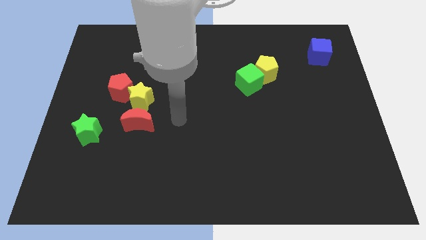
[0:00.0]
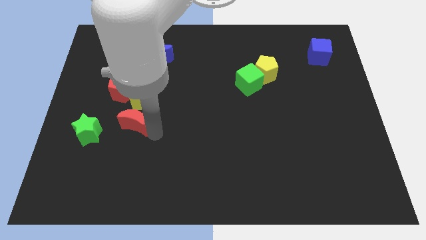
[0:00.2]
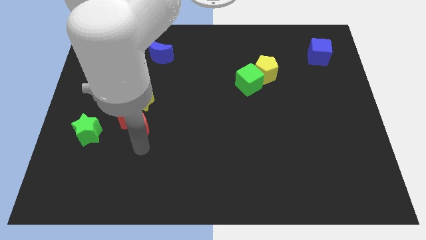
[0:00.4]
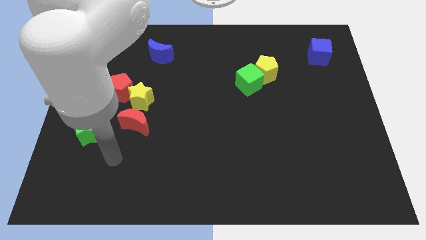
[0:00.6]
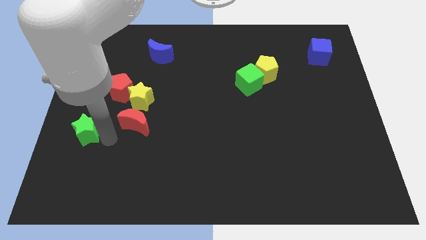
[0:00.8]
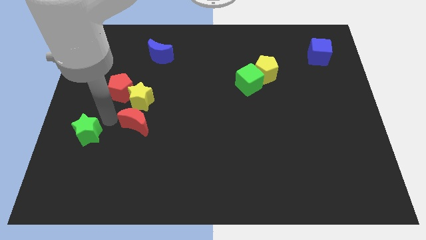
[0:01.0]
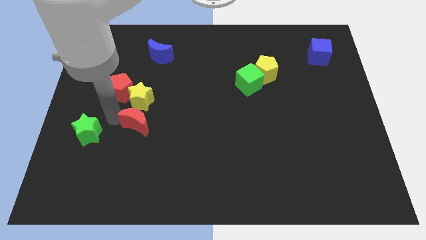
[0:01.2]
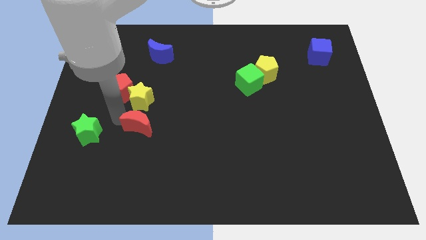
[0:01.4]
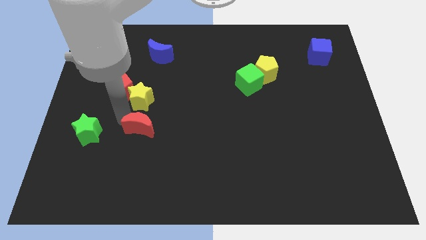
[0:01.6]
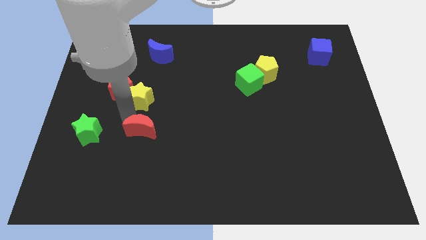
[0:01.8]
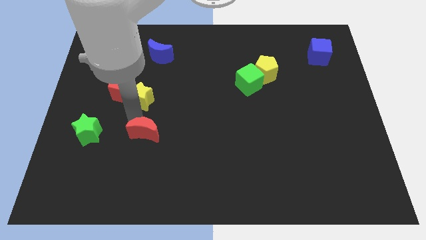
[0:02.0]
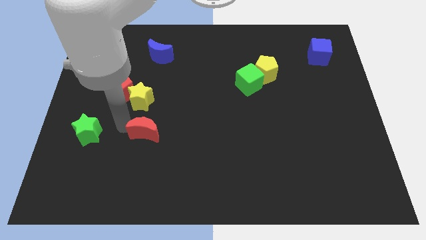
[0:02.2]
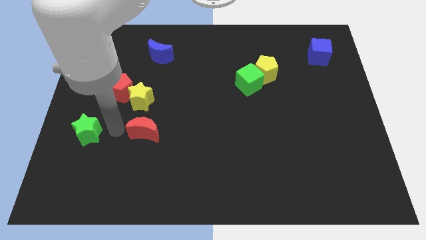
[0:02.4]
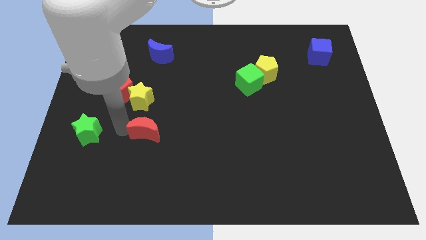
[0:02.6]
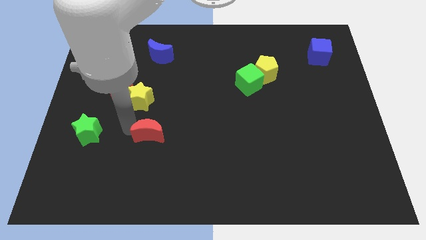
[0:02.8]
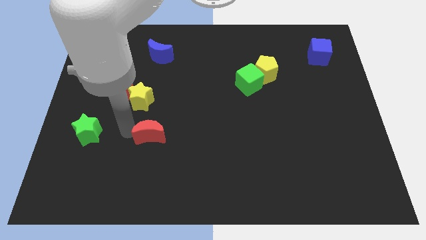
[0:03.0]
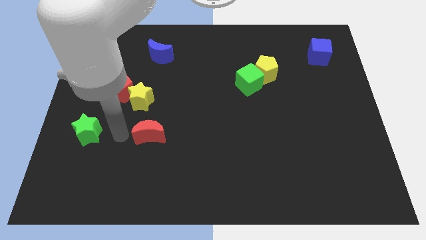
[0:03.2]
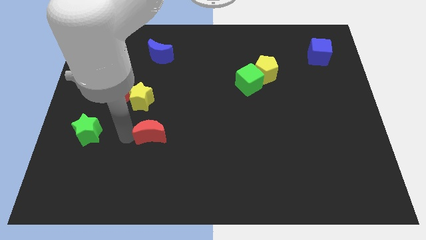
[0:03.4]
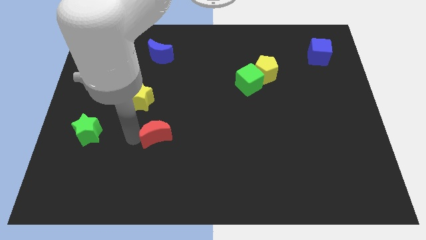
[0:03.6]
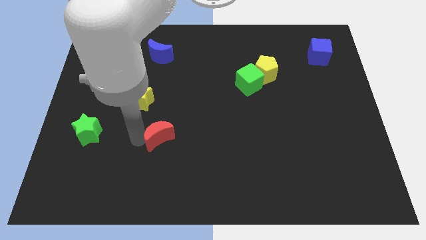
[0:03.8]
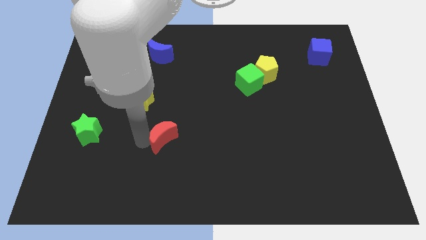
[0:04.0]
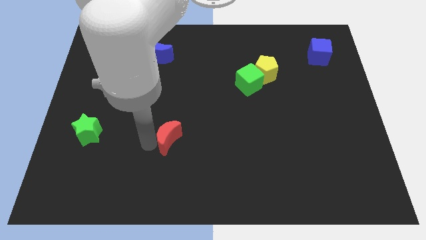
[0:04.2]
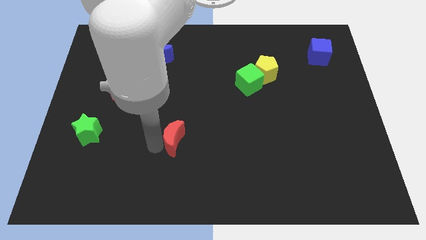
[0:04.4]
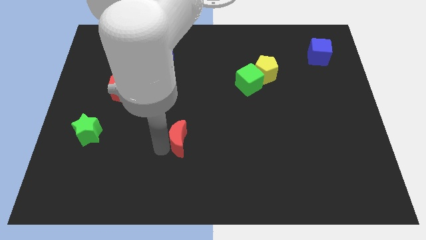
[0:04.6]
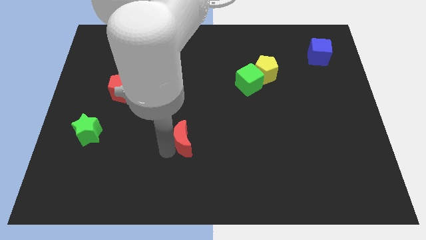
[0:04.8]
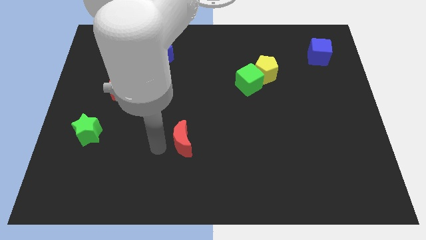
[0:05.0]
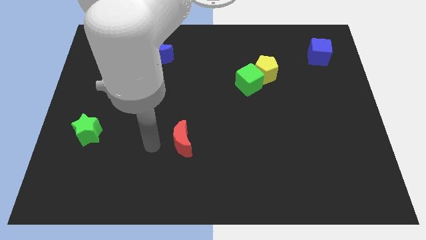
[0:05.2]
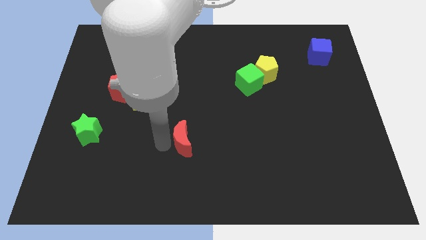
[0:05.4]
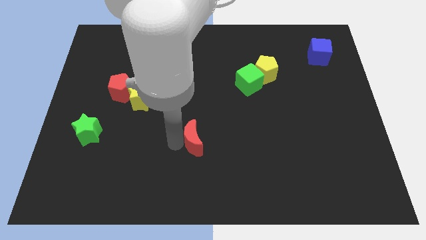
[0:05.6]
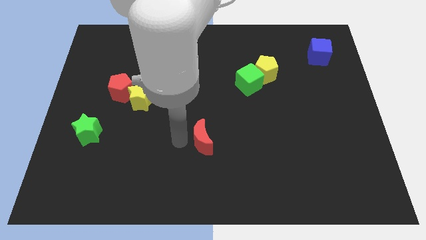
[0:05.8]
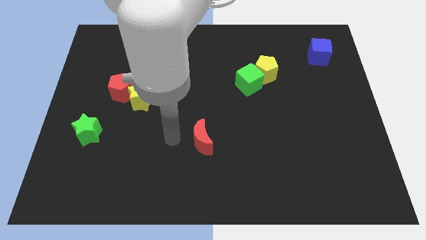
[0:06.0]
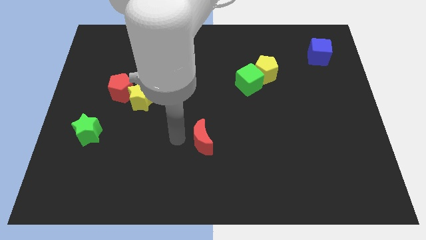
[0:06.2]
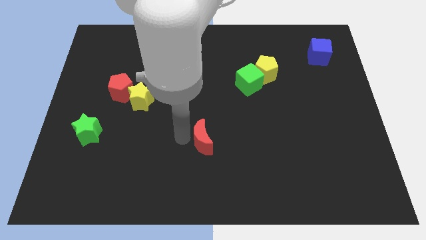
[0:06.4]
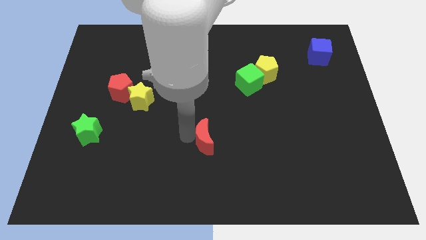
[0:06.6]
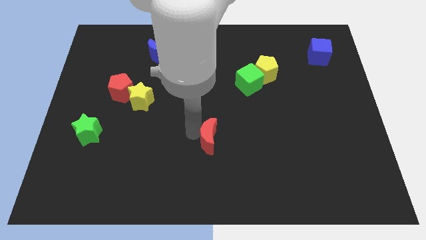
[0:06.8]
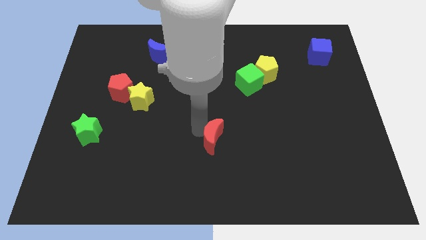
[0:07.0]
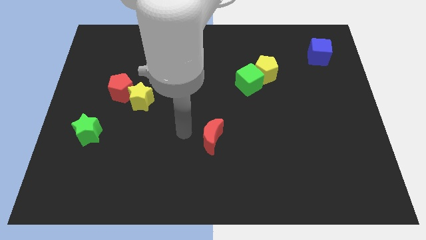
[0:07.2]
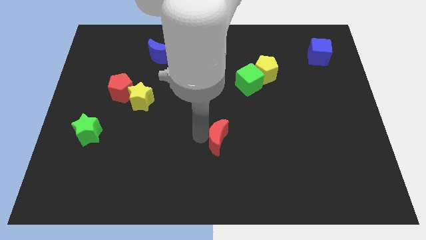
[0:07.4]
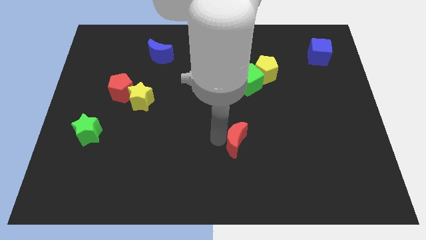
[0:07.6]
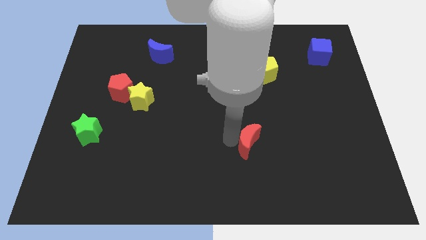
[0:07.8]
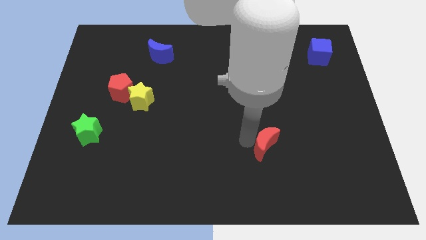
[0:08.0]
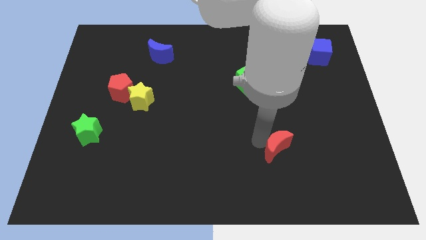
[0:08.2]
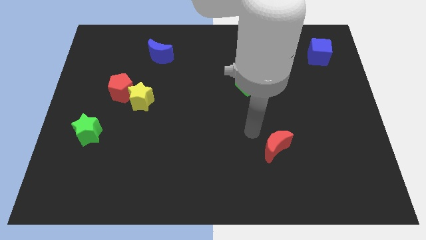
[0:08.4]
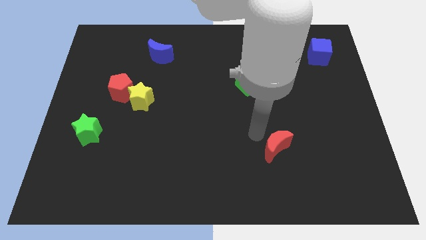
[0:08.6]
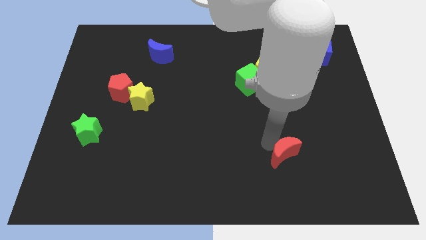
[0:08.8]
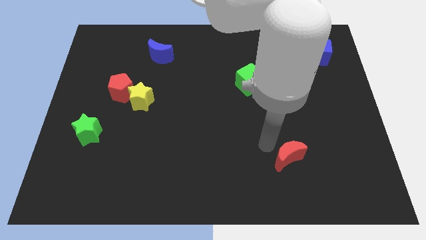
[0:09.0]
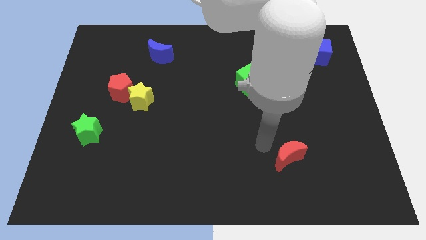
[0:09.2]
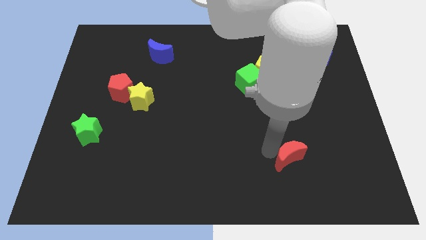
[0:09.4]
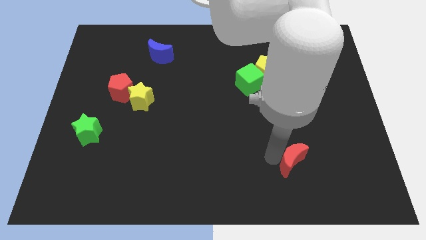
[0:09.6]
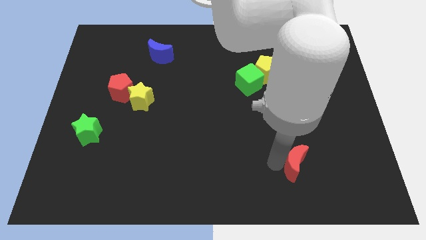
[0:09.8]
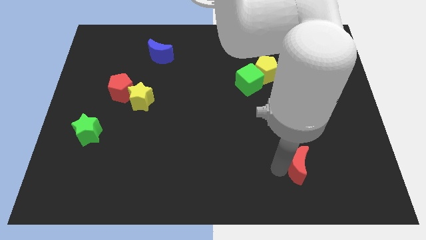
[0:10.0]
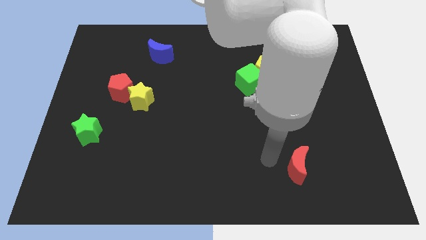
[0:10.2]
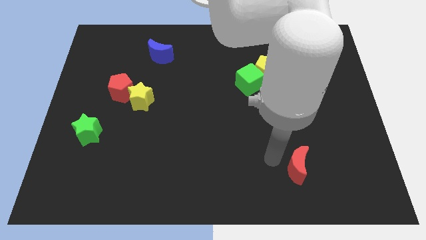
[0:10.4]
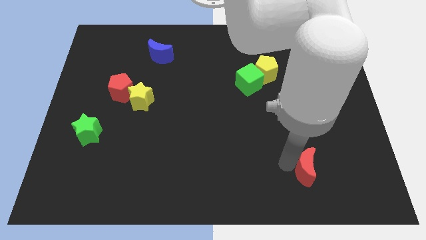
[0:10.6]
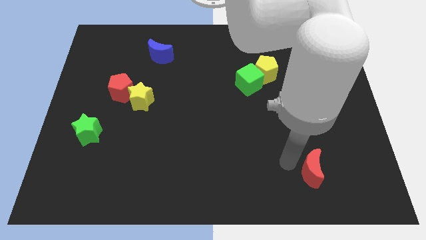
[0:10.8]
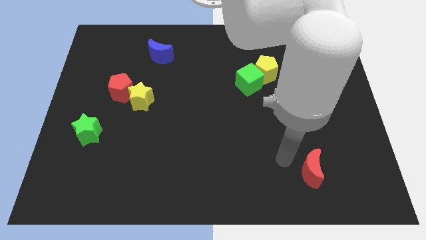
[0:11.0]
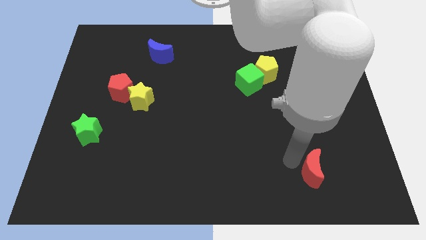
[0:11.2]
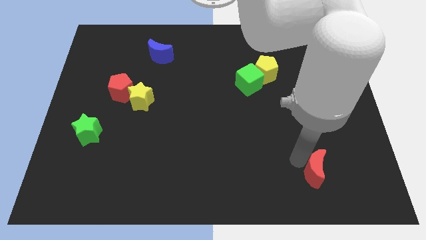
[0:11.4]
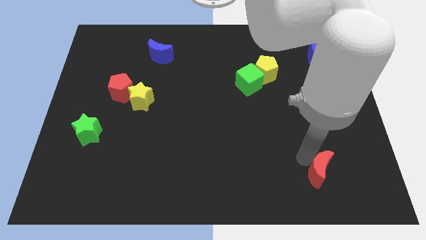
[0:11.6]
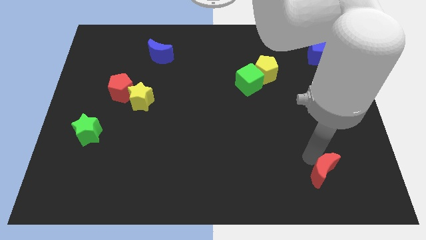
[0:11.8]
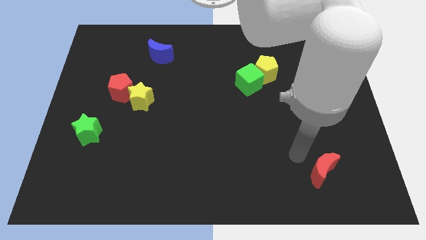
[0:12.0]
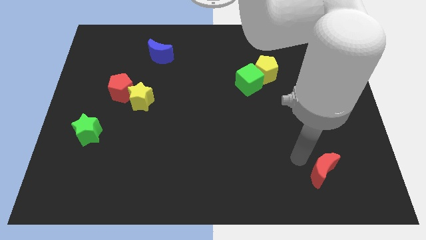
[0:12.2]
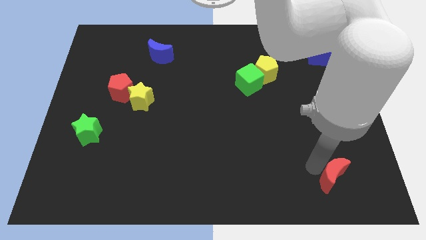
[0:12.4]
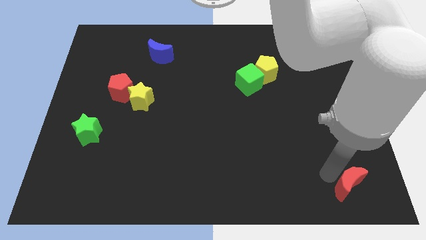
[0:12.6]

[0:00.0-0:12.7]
put the red moon to the lower right corner
